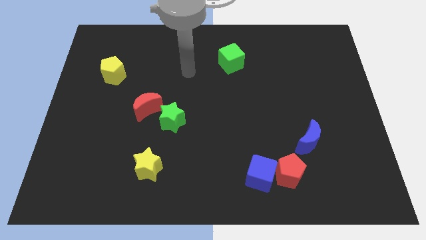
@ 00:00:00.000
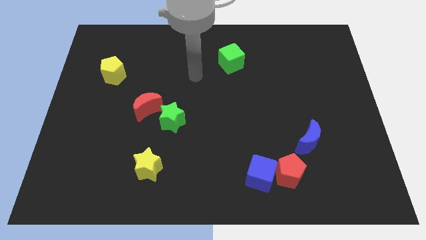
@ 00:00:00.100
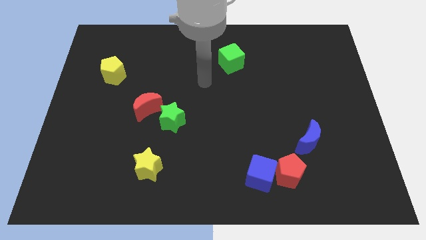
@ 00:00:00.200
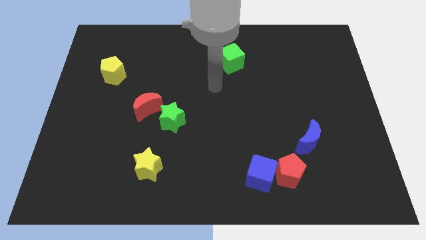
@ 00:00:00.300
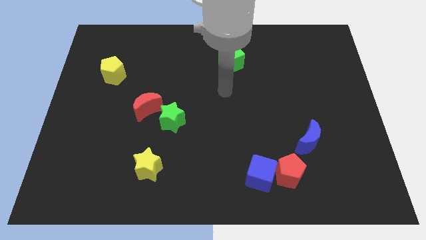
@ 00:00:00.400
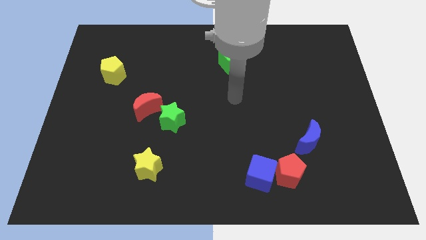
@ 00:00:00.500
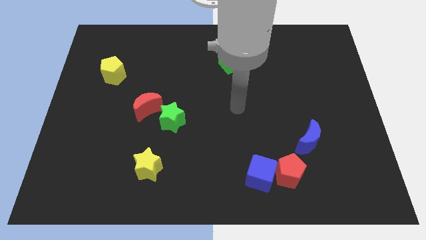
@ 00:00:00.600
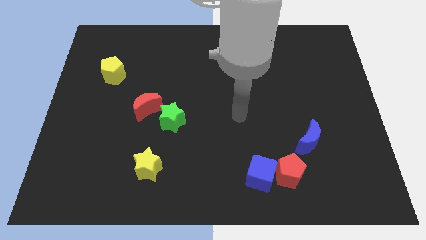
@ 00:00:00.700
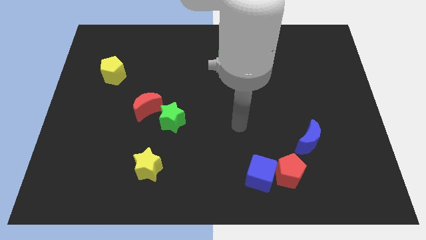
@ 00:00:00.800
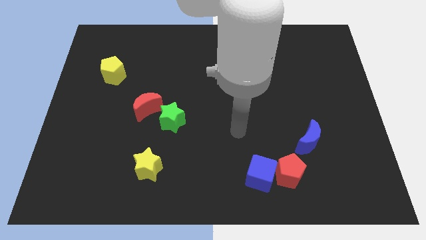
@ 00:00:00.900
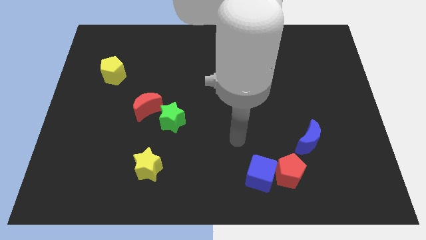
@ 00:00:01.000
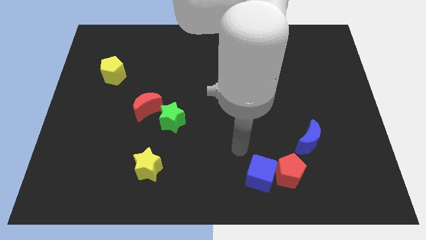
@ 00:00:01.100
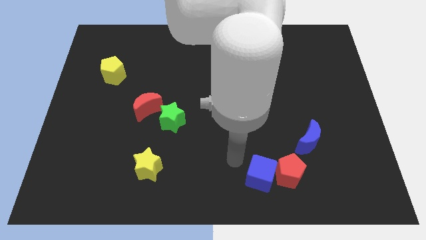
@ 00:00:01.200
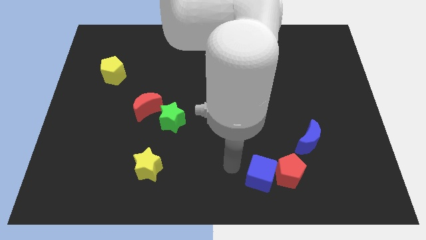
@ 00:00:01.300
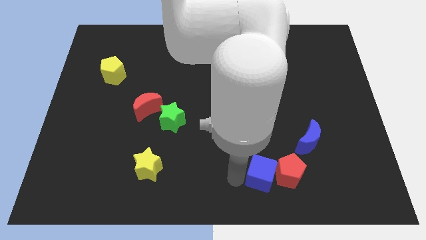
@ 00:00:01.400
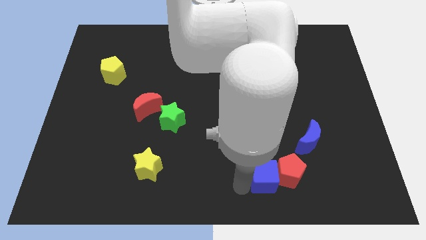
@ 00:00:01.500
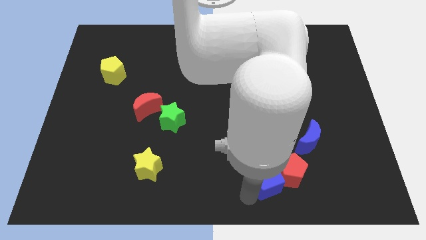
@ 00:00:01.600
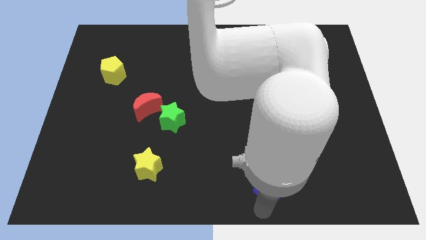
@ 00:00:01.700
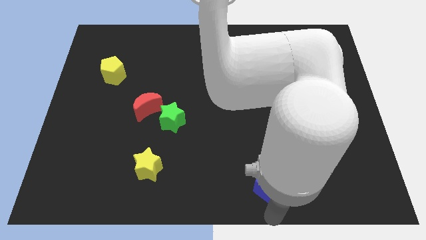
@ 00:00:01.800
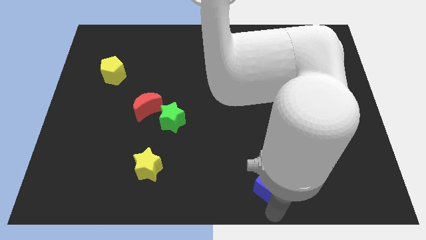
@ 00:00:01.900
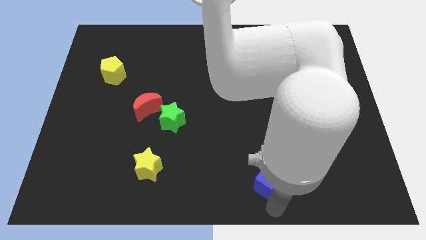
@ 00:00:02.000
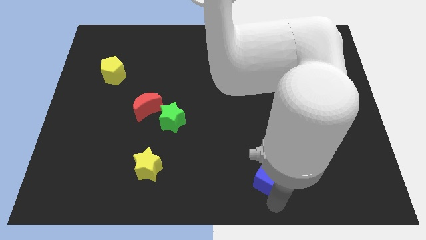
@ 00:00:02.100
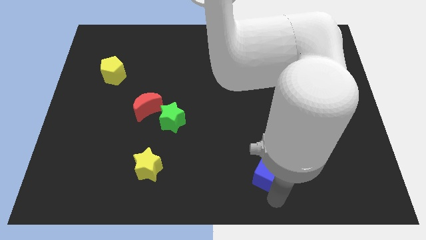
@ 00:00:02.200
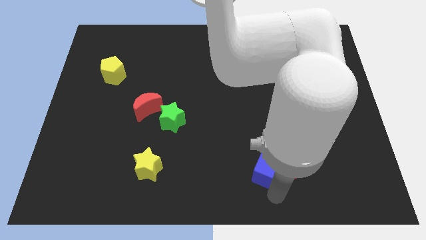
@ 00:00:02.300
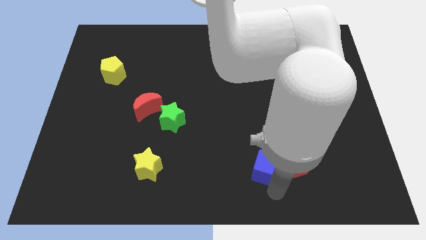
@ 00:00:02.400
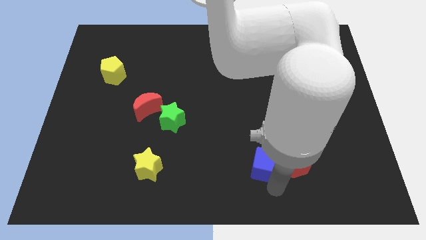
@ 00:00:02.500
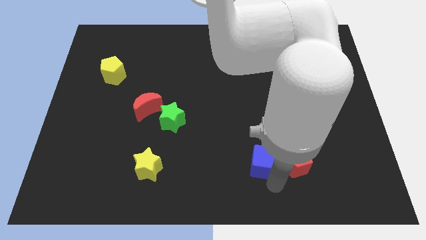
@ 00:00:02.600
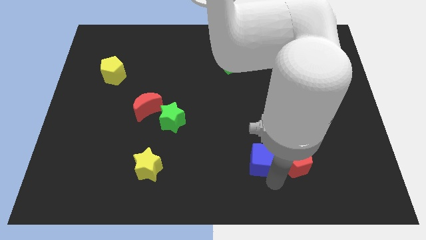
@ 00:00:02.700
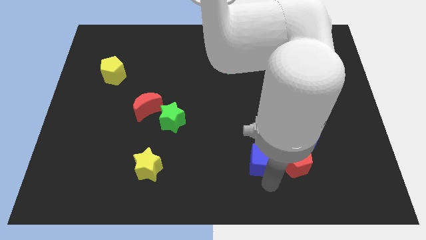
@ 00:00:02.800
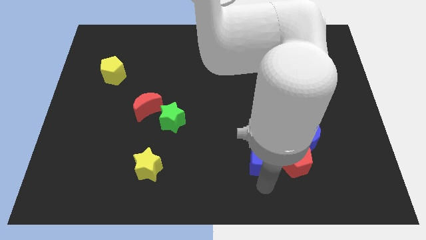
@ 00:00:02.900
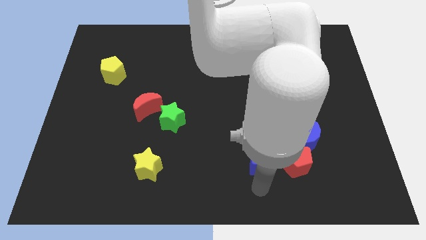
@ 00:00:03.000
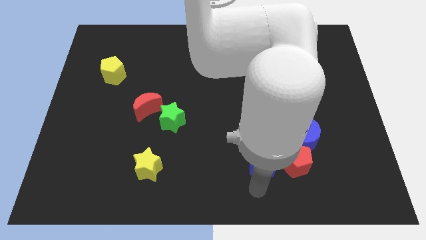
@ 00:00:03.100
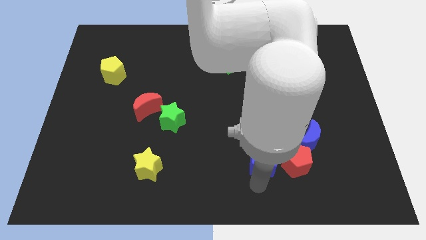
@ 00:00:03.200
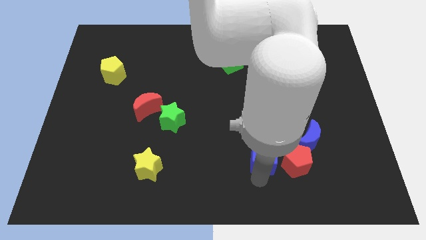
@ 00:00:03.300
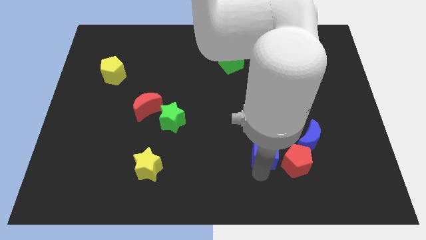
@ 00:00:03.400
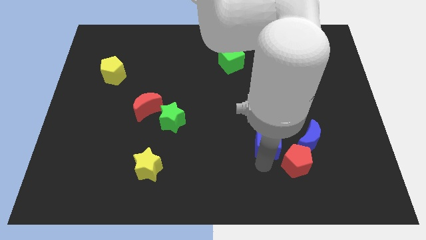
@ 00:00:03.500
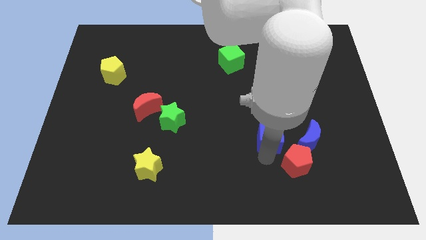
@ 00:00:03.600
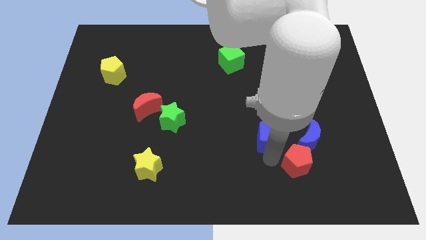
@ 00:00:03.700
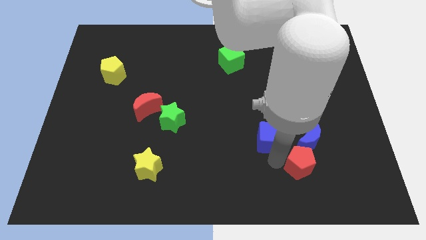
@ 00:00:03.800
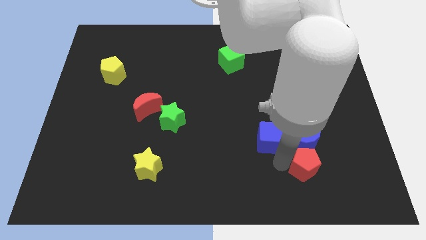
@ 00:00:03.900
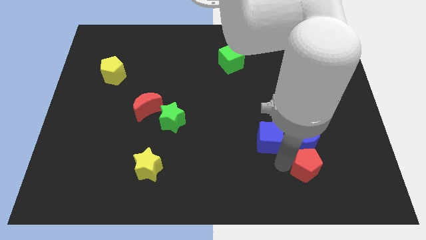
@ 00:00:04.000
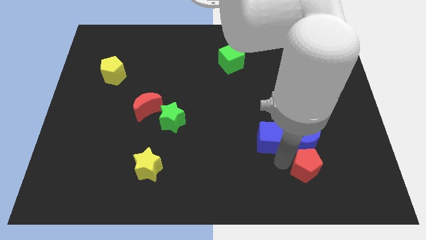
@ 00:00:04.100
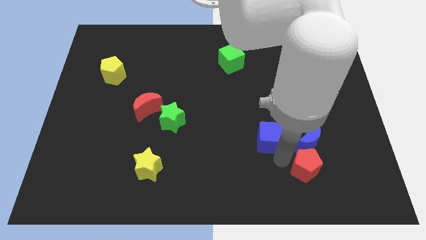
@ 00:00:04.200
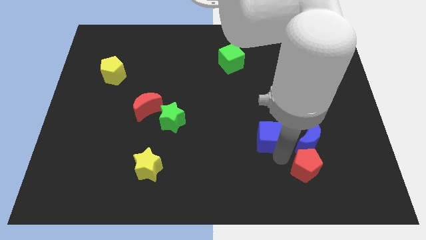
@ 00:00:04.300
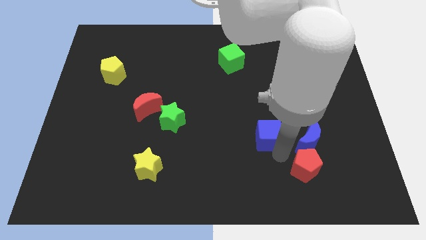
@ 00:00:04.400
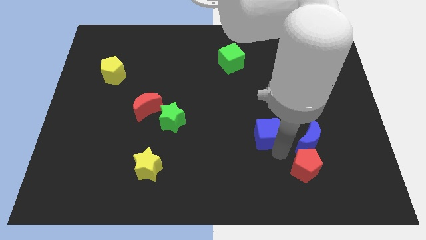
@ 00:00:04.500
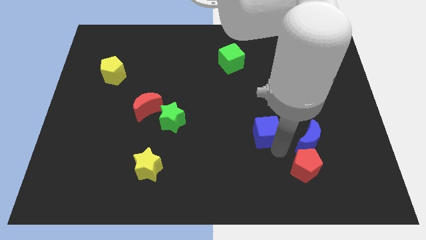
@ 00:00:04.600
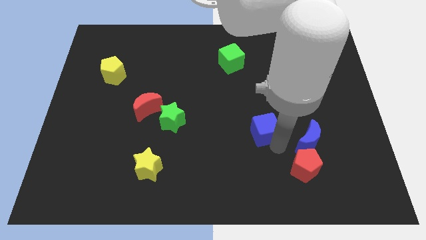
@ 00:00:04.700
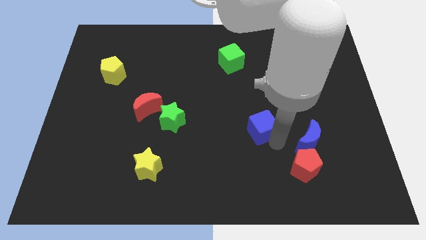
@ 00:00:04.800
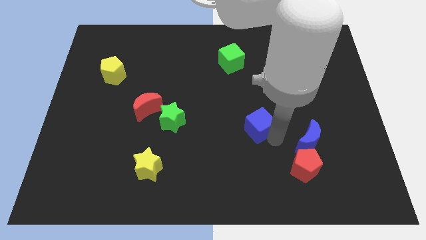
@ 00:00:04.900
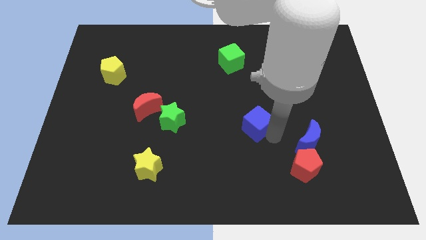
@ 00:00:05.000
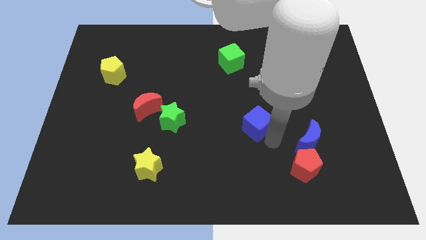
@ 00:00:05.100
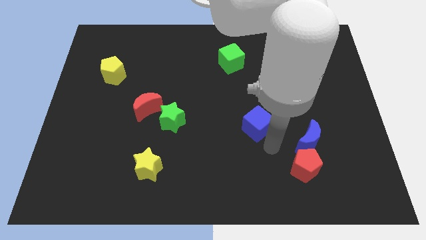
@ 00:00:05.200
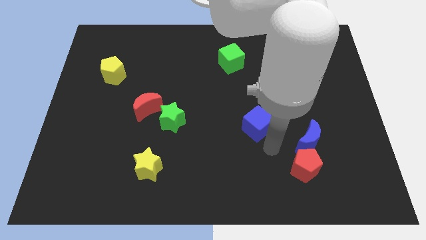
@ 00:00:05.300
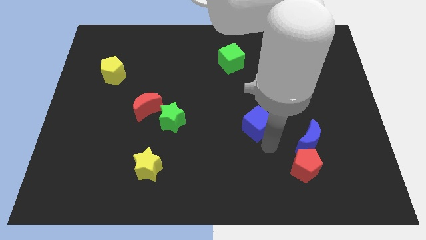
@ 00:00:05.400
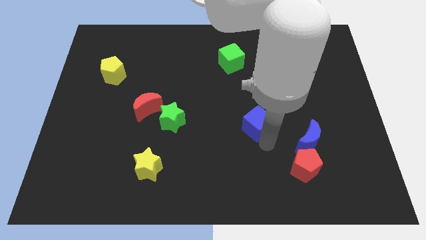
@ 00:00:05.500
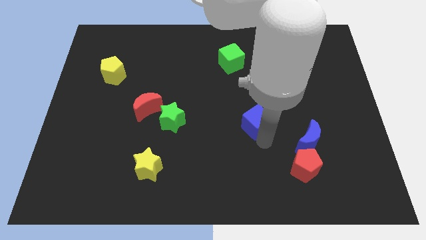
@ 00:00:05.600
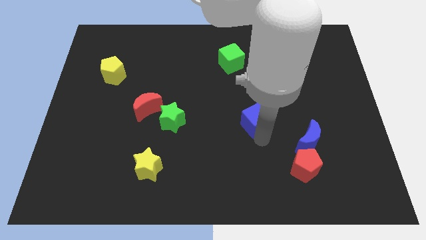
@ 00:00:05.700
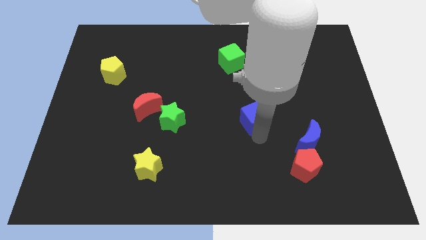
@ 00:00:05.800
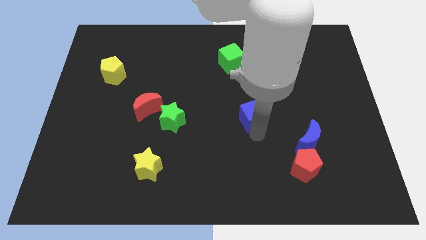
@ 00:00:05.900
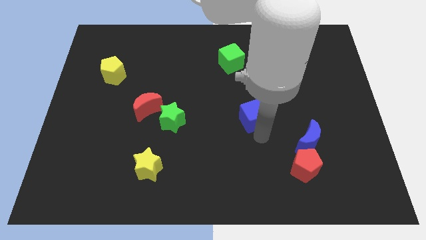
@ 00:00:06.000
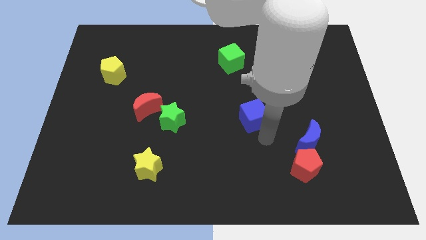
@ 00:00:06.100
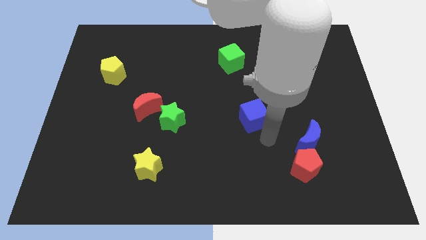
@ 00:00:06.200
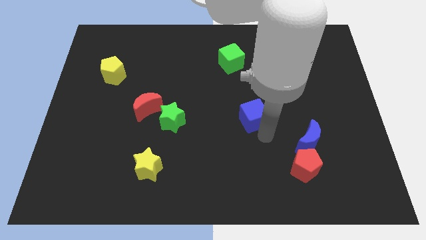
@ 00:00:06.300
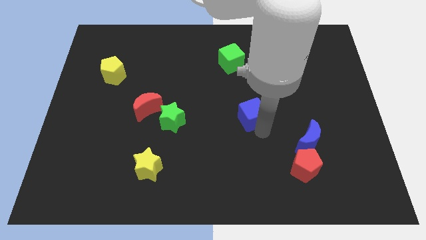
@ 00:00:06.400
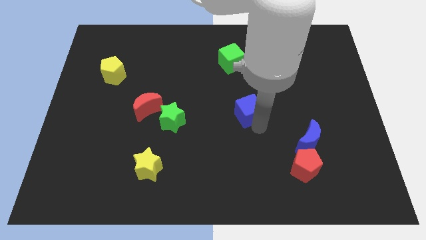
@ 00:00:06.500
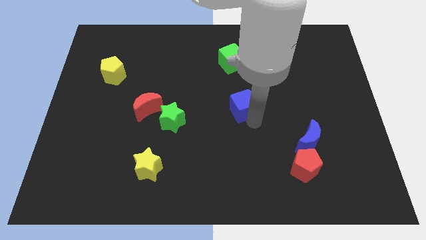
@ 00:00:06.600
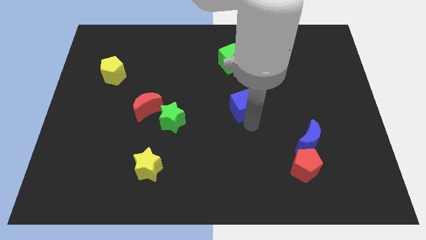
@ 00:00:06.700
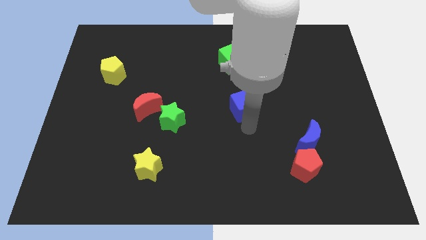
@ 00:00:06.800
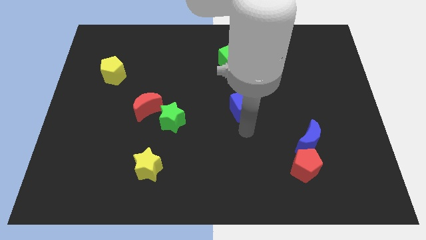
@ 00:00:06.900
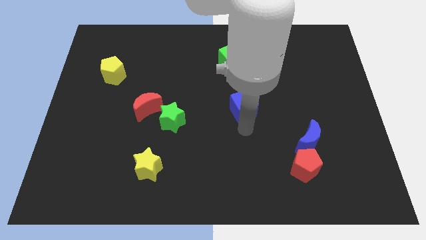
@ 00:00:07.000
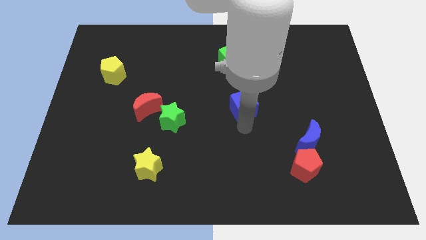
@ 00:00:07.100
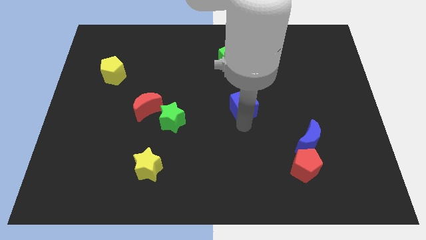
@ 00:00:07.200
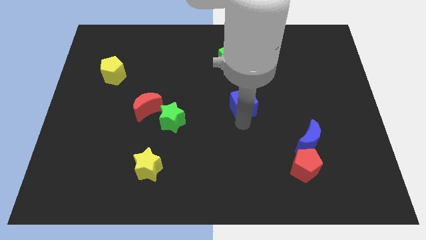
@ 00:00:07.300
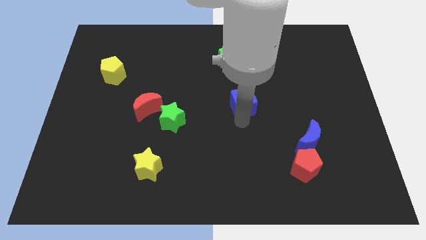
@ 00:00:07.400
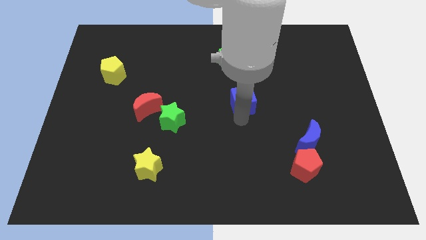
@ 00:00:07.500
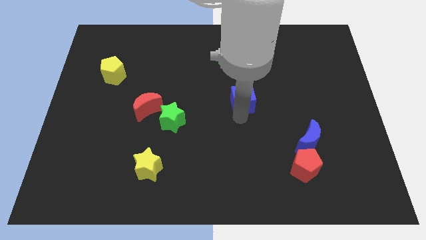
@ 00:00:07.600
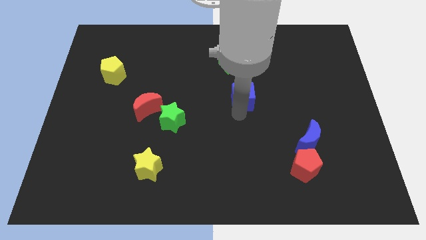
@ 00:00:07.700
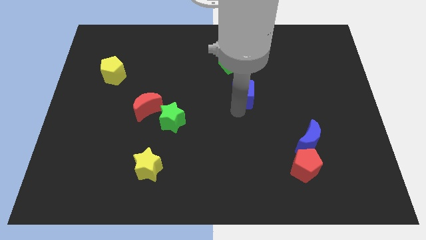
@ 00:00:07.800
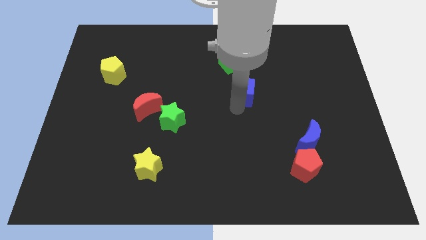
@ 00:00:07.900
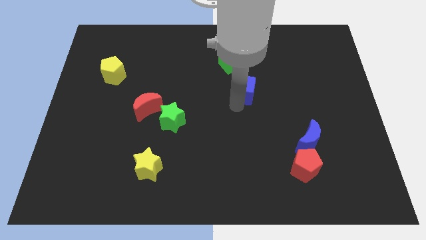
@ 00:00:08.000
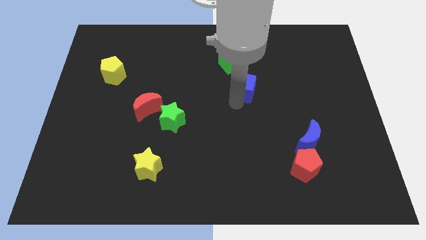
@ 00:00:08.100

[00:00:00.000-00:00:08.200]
slide the blue cube diagonally down and to the right of the green cube
